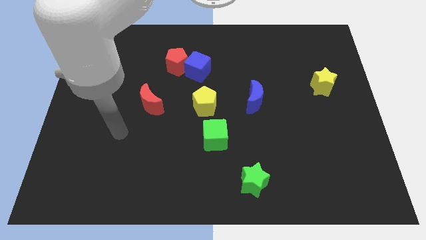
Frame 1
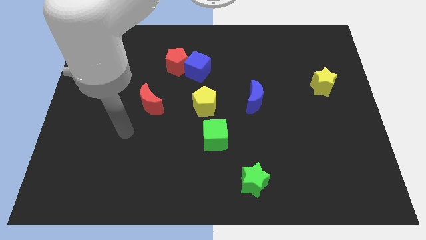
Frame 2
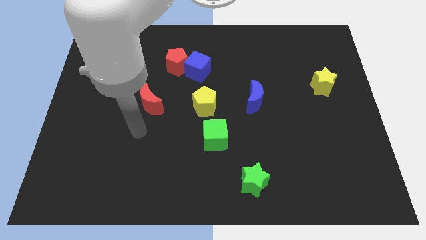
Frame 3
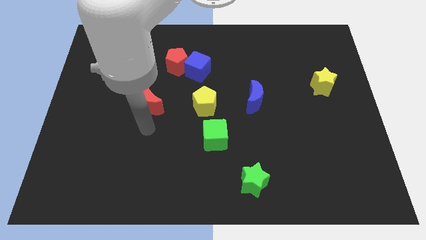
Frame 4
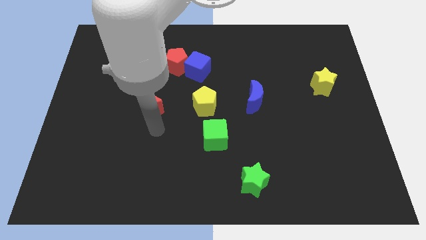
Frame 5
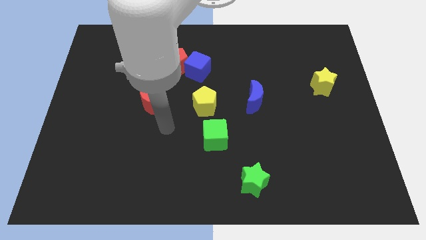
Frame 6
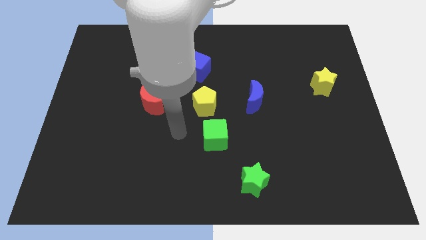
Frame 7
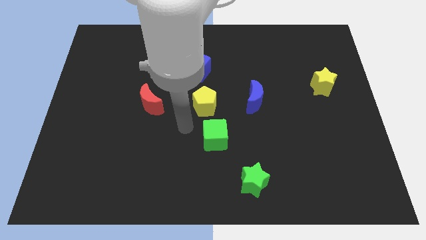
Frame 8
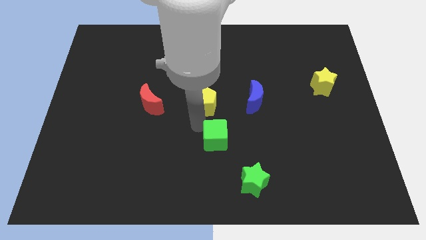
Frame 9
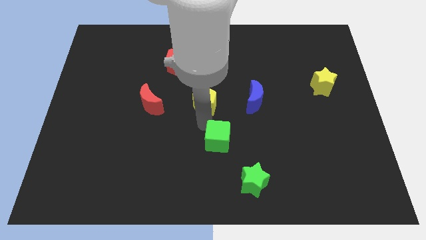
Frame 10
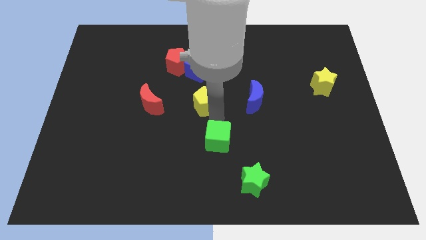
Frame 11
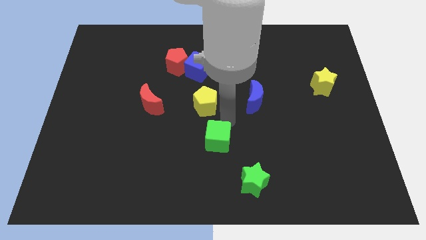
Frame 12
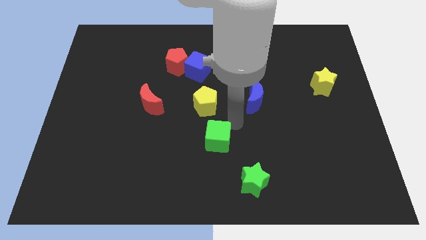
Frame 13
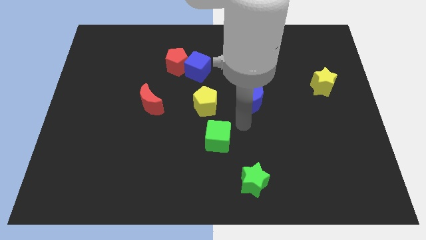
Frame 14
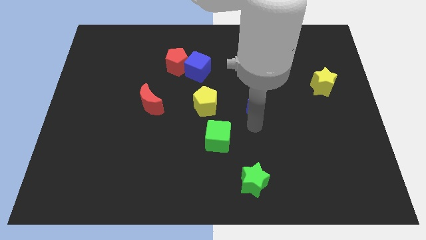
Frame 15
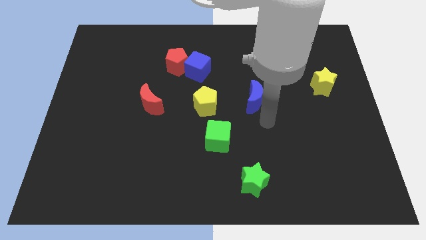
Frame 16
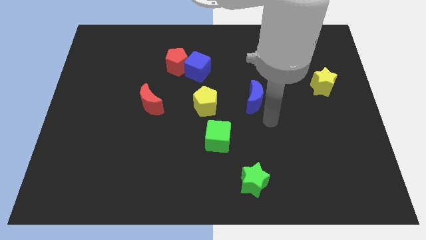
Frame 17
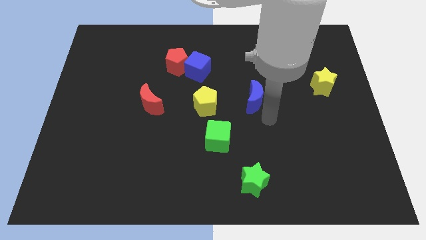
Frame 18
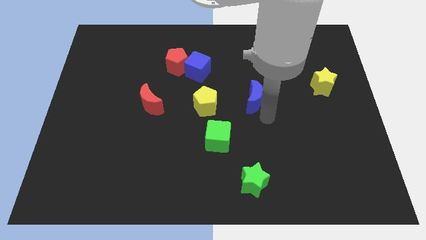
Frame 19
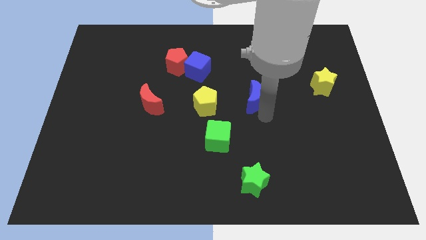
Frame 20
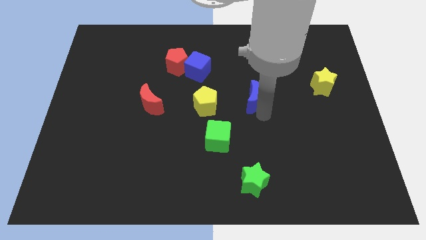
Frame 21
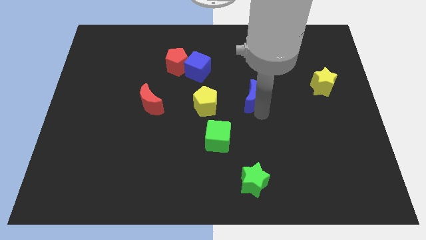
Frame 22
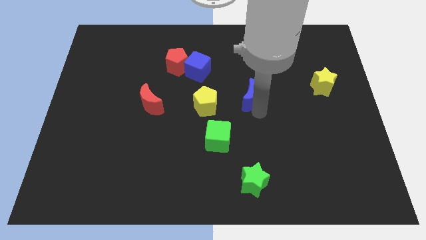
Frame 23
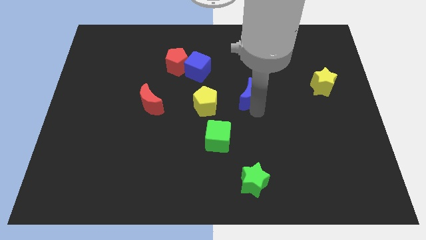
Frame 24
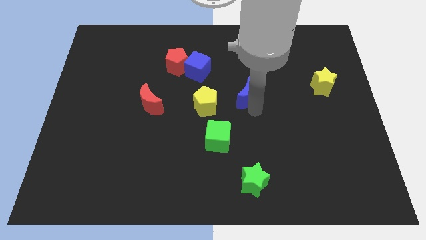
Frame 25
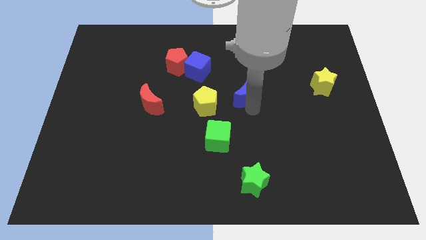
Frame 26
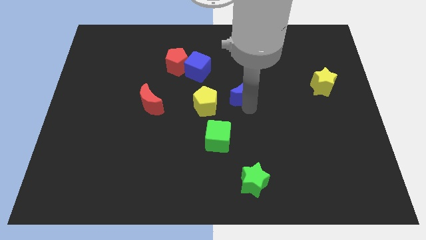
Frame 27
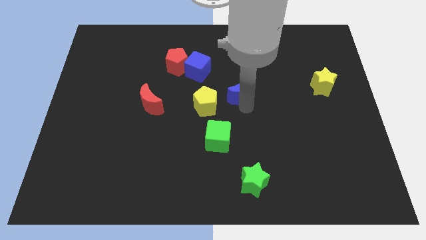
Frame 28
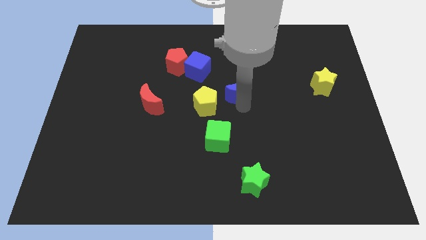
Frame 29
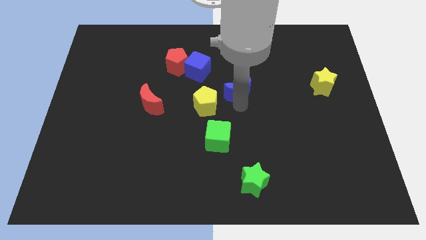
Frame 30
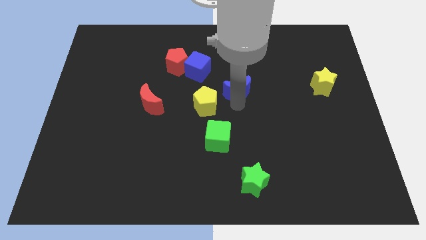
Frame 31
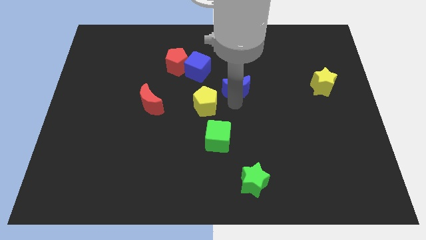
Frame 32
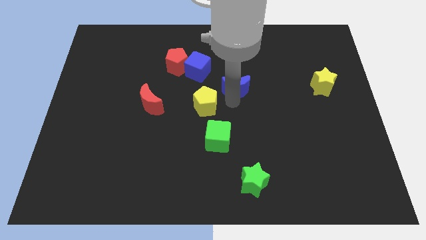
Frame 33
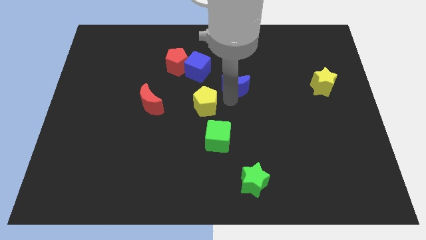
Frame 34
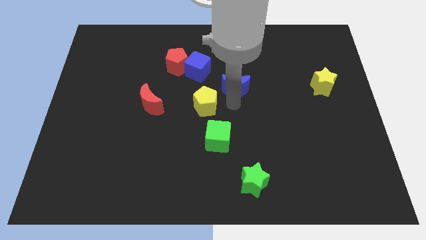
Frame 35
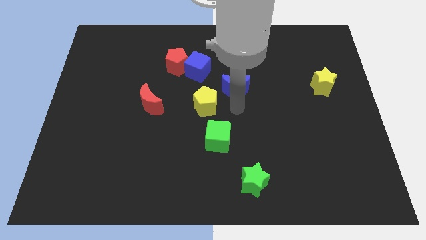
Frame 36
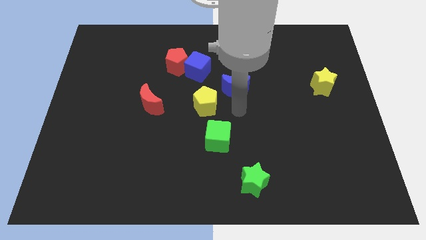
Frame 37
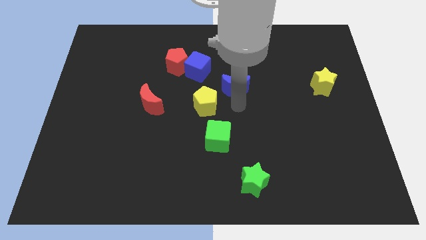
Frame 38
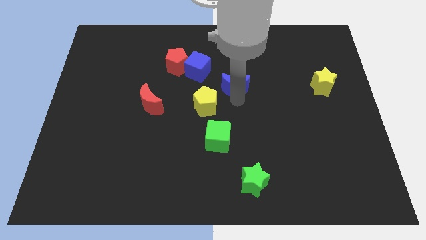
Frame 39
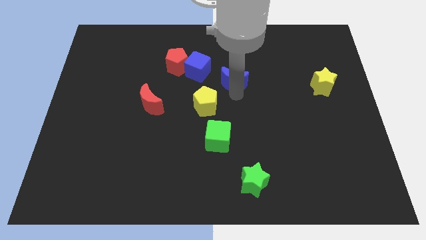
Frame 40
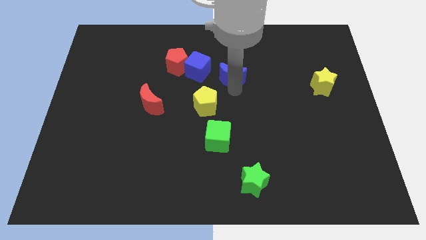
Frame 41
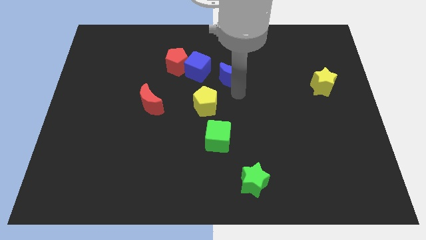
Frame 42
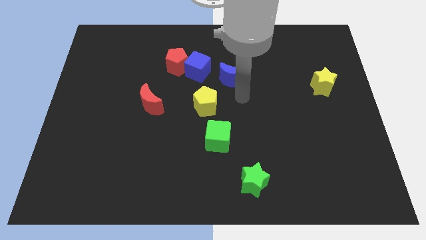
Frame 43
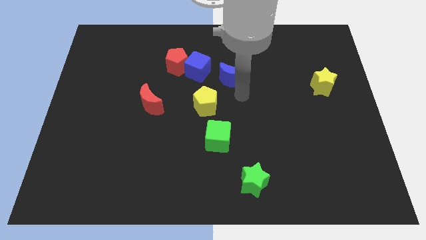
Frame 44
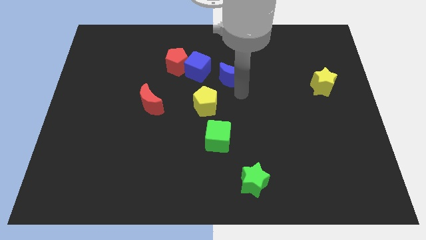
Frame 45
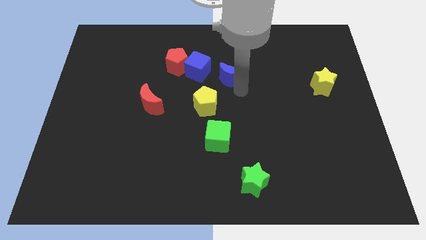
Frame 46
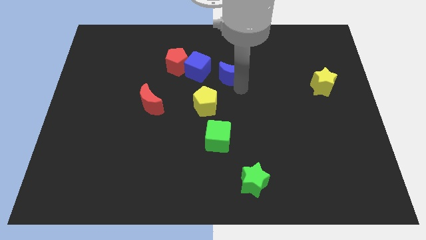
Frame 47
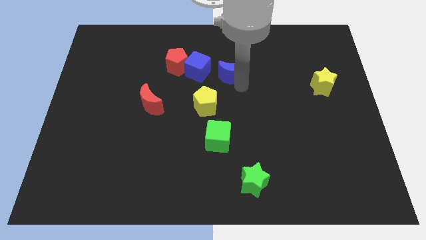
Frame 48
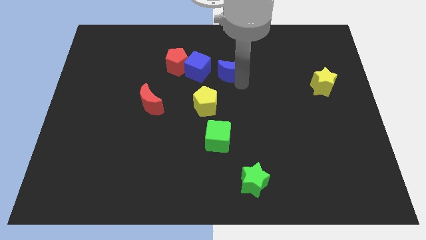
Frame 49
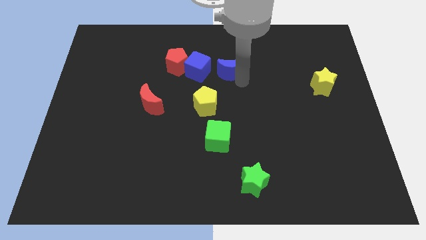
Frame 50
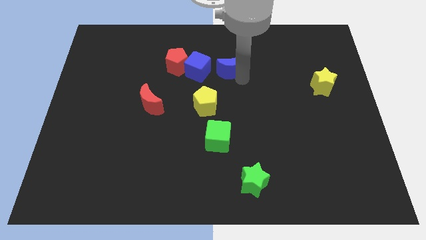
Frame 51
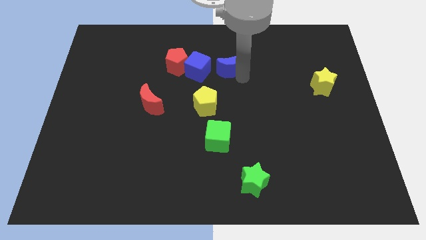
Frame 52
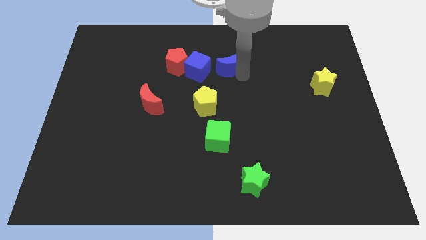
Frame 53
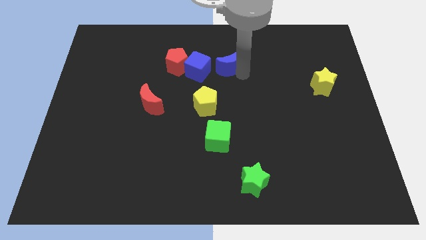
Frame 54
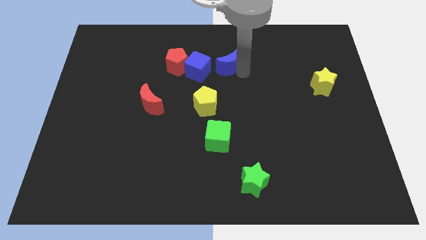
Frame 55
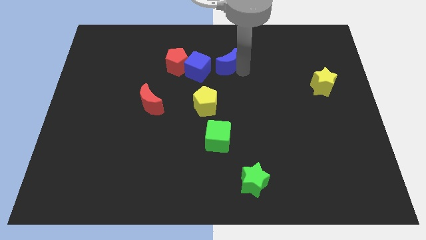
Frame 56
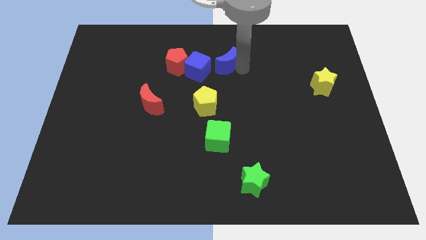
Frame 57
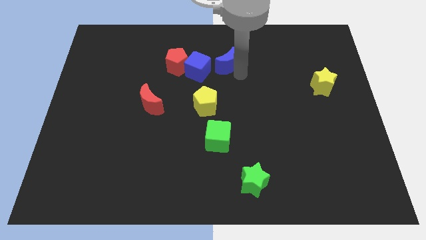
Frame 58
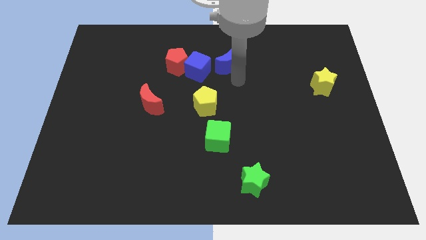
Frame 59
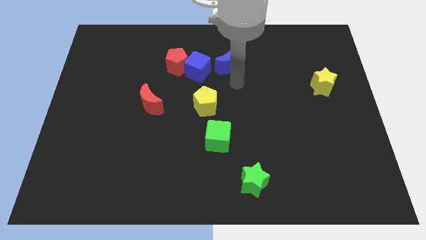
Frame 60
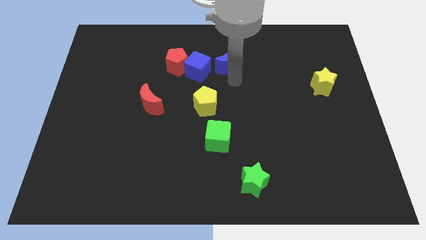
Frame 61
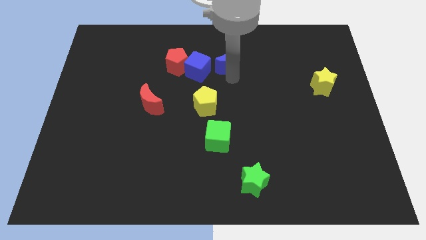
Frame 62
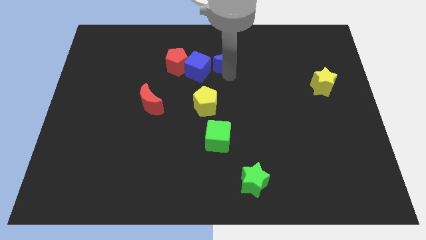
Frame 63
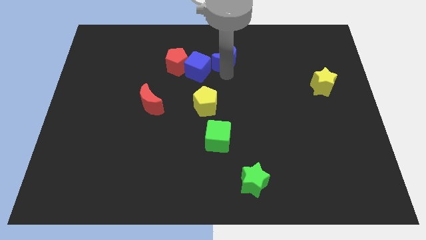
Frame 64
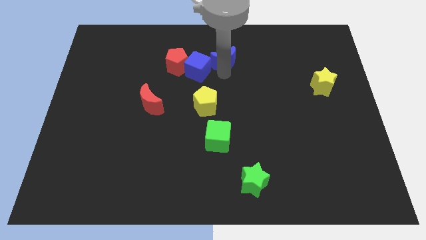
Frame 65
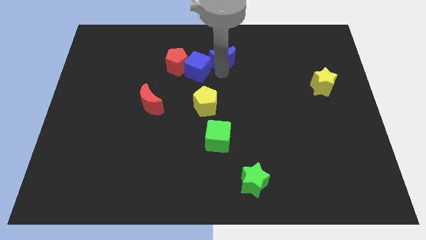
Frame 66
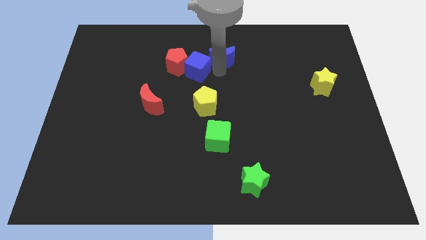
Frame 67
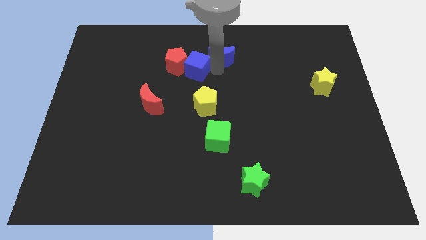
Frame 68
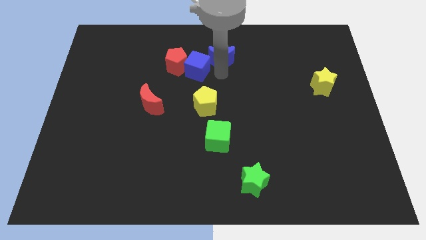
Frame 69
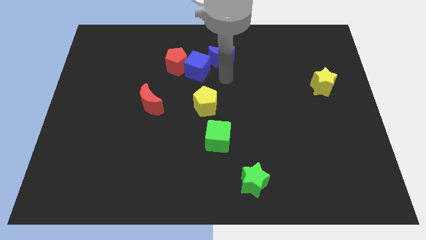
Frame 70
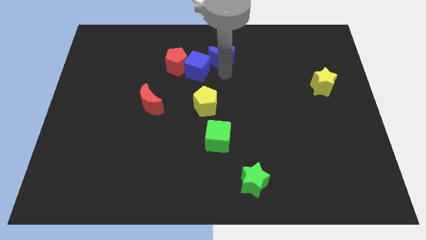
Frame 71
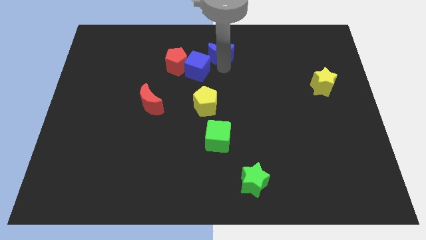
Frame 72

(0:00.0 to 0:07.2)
slide the blue moon to the top
